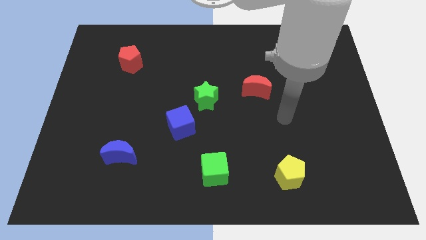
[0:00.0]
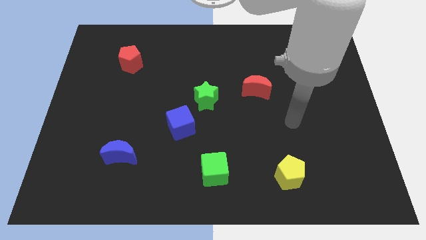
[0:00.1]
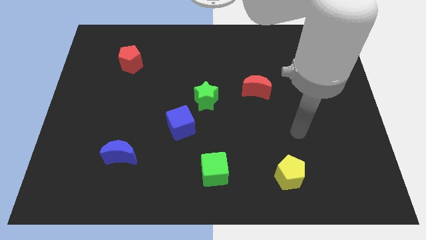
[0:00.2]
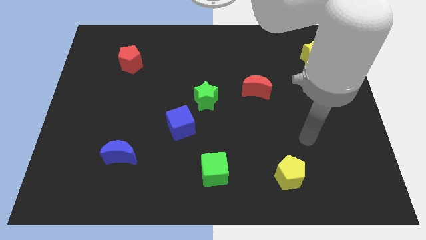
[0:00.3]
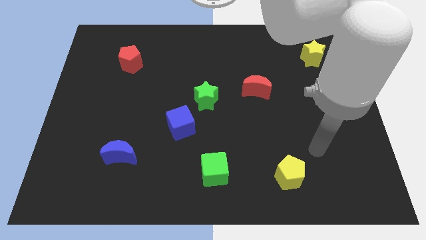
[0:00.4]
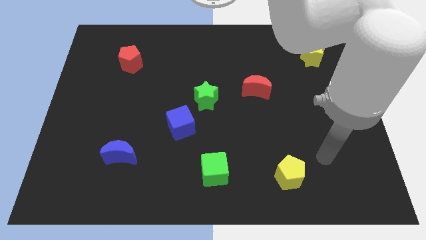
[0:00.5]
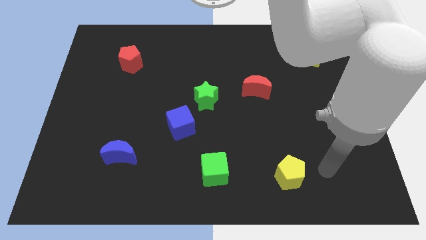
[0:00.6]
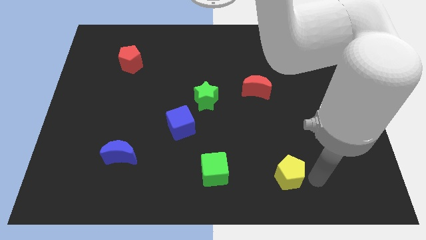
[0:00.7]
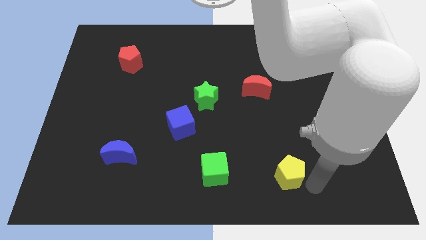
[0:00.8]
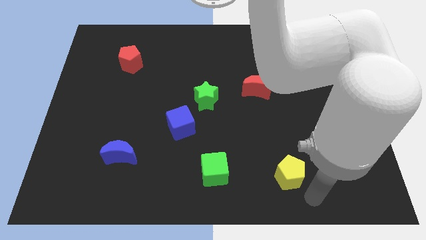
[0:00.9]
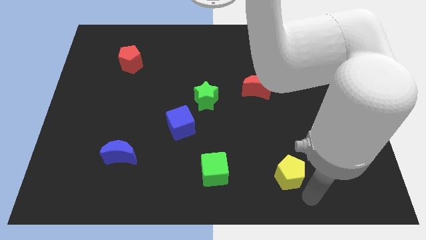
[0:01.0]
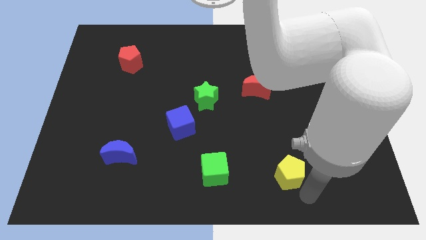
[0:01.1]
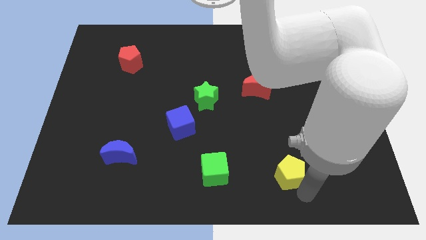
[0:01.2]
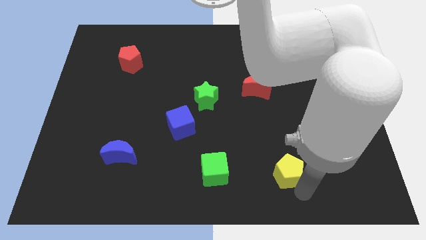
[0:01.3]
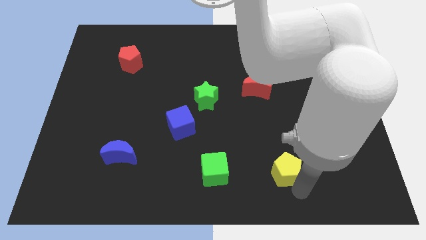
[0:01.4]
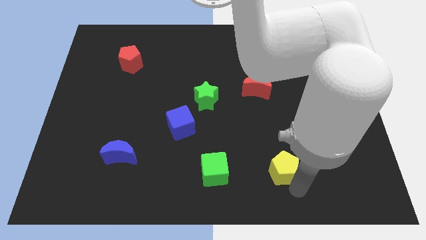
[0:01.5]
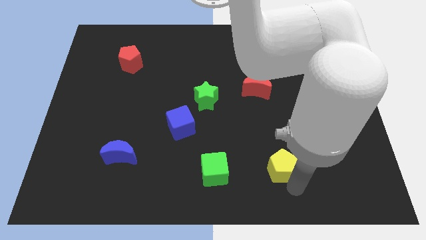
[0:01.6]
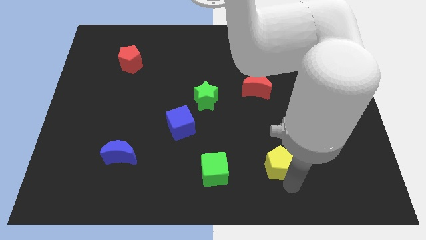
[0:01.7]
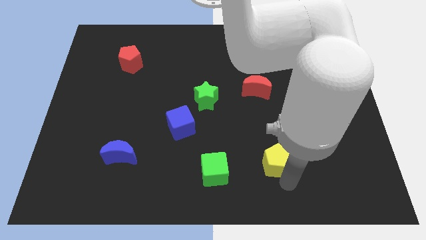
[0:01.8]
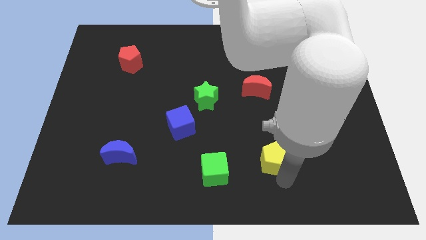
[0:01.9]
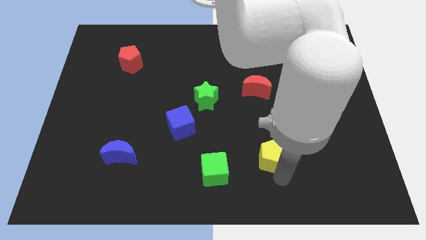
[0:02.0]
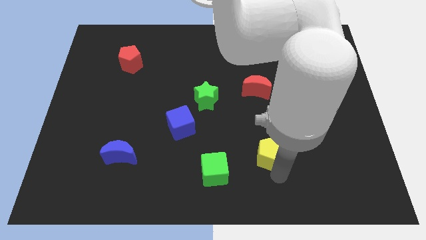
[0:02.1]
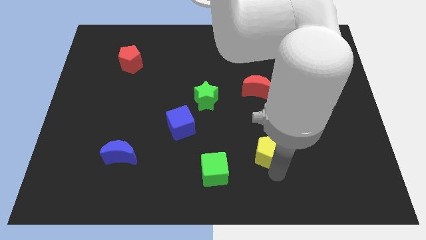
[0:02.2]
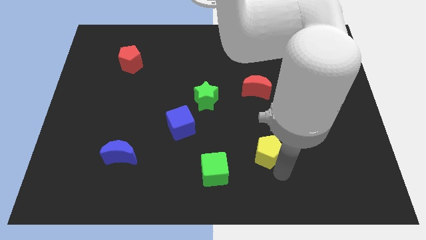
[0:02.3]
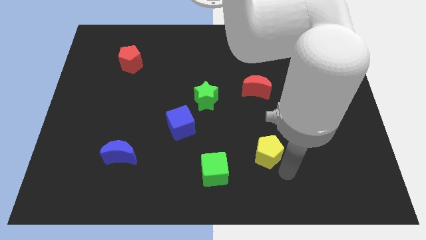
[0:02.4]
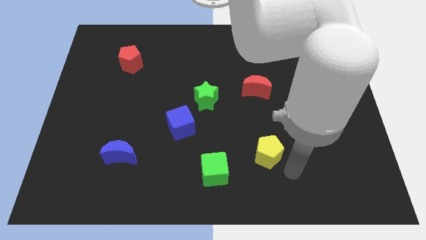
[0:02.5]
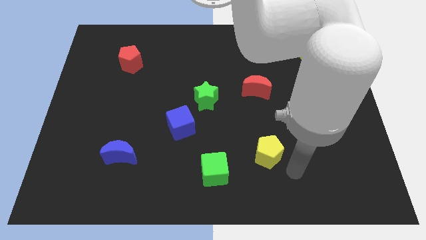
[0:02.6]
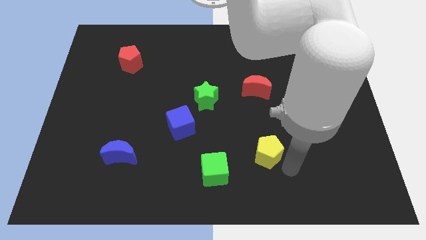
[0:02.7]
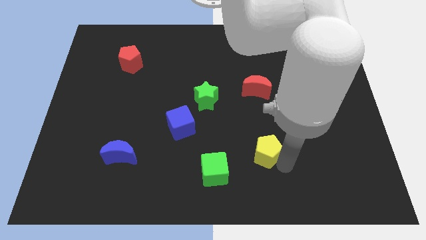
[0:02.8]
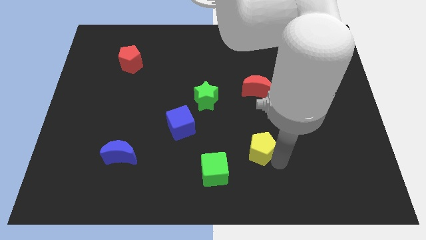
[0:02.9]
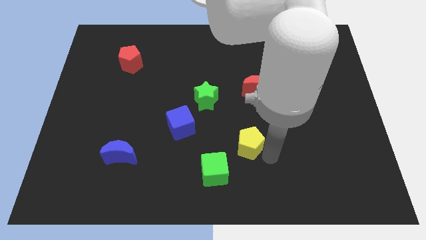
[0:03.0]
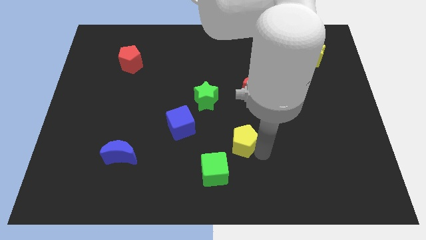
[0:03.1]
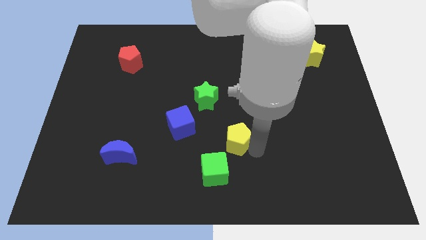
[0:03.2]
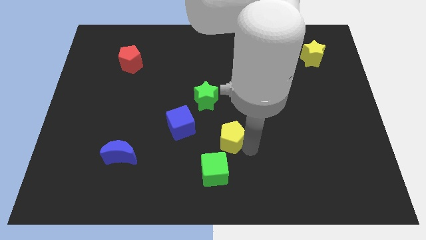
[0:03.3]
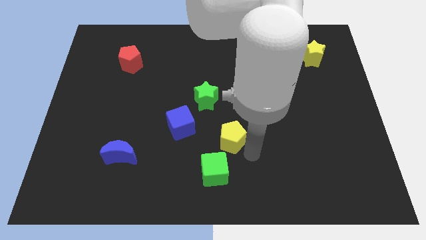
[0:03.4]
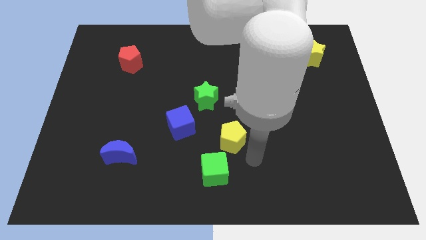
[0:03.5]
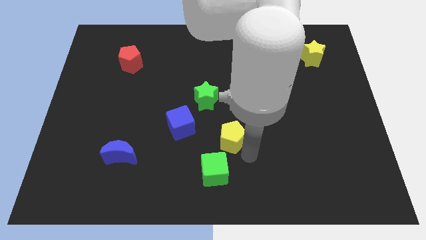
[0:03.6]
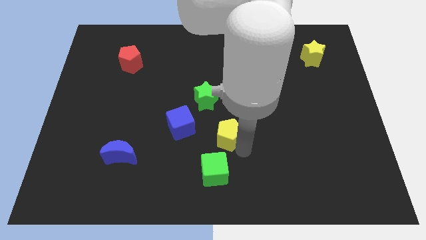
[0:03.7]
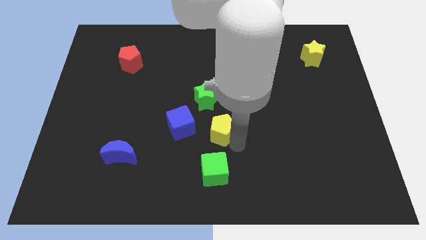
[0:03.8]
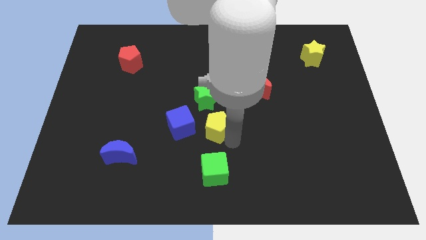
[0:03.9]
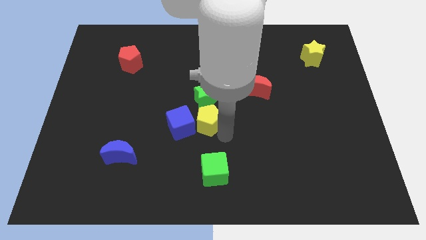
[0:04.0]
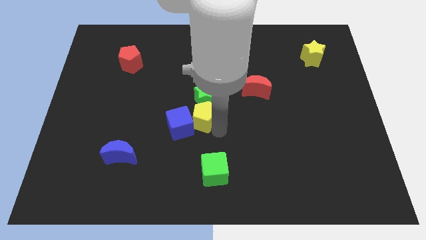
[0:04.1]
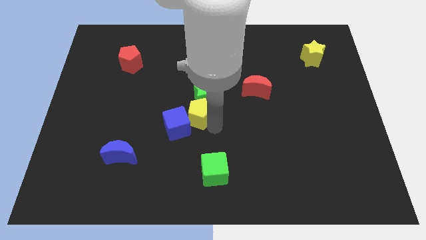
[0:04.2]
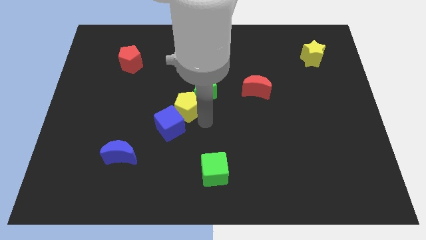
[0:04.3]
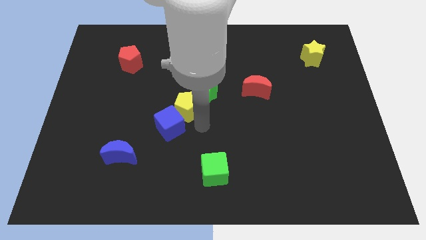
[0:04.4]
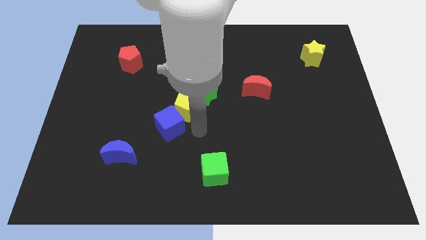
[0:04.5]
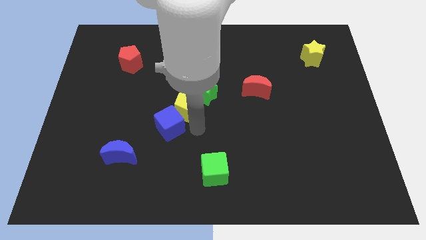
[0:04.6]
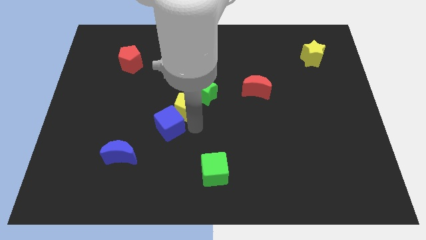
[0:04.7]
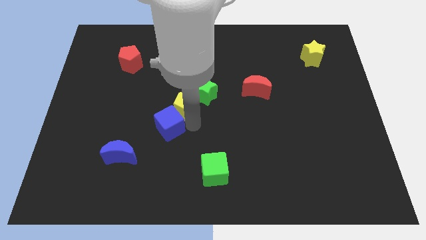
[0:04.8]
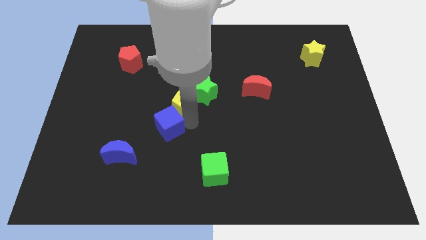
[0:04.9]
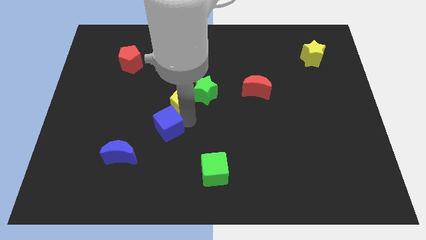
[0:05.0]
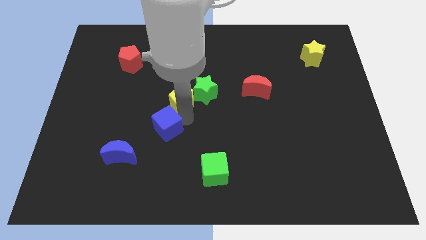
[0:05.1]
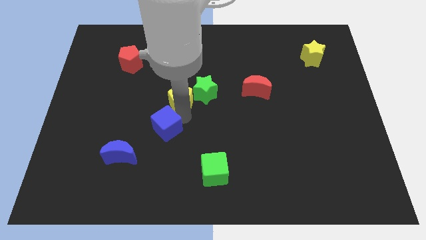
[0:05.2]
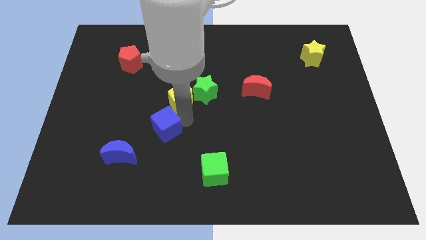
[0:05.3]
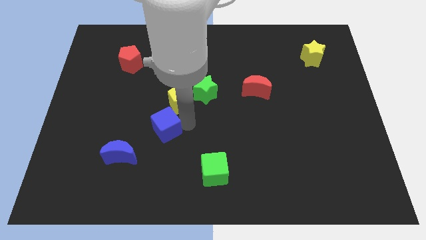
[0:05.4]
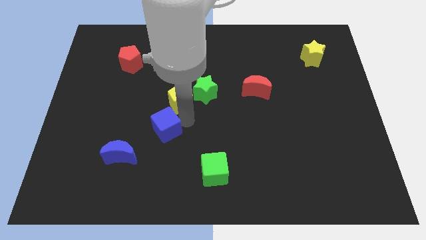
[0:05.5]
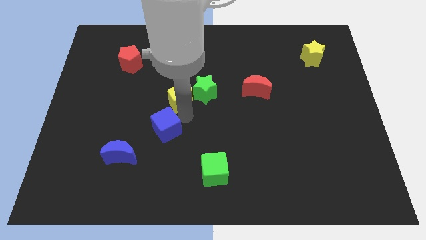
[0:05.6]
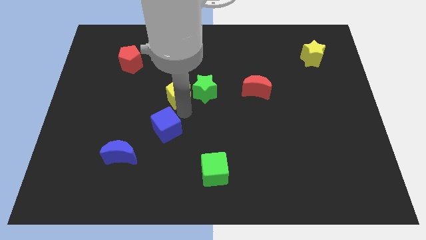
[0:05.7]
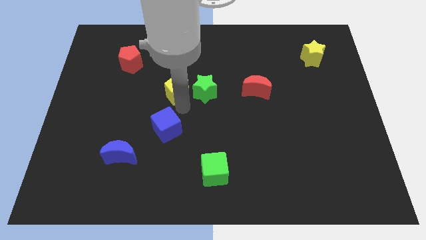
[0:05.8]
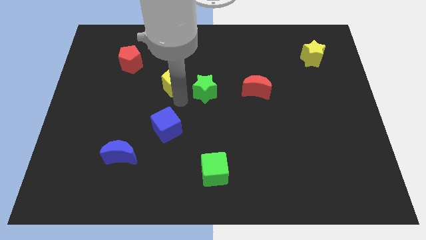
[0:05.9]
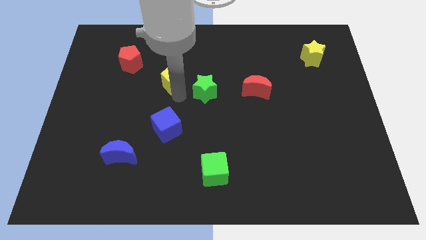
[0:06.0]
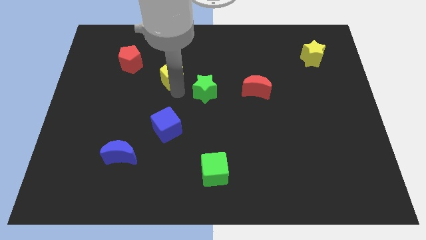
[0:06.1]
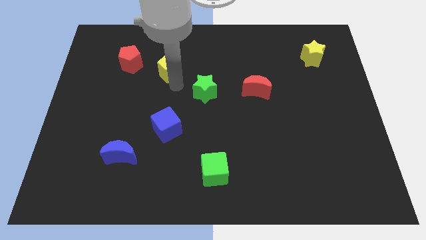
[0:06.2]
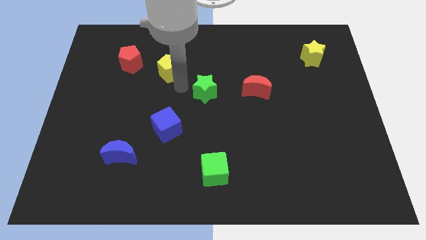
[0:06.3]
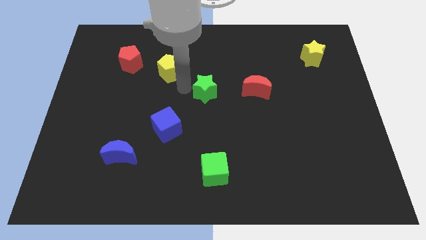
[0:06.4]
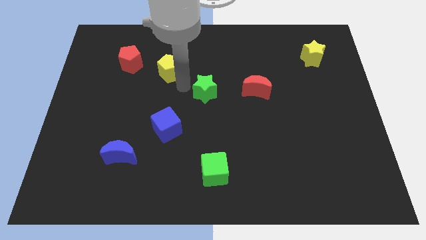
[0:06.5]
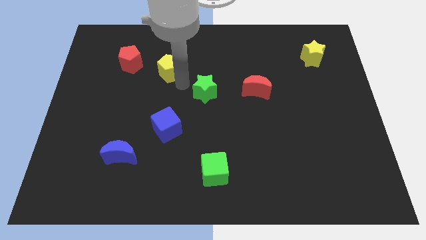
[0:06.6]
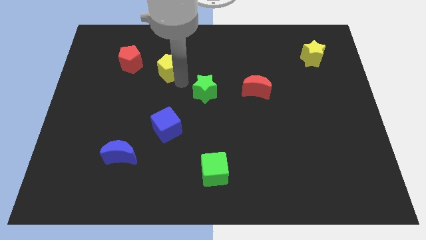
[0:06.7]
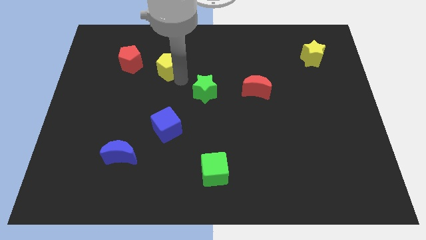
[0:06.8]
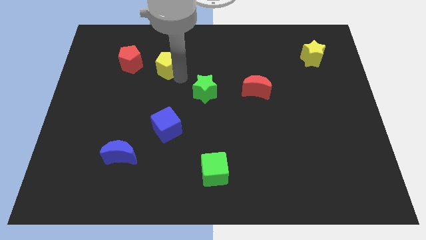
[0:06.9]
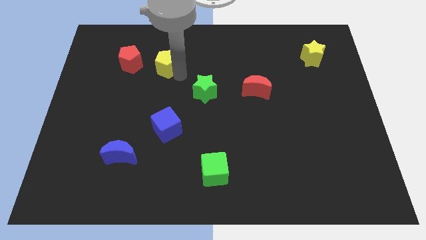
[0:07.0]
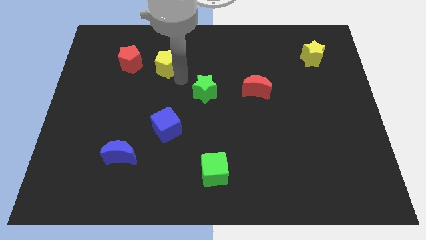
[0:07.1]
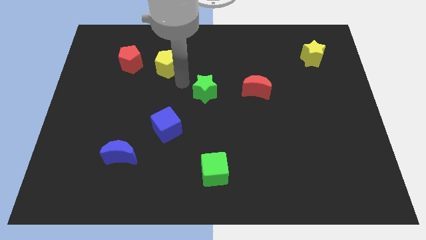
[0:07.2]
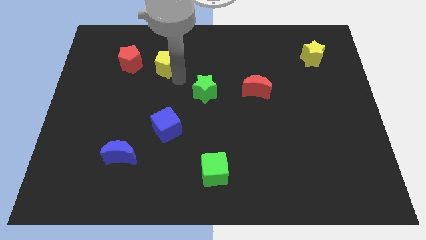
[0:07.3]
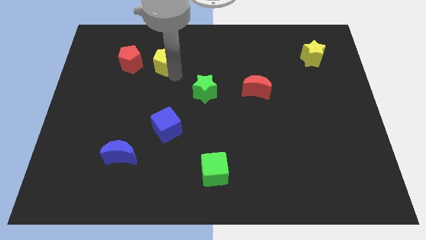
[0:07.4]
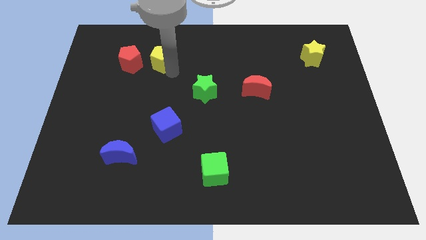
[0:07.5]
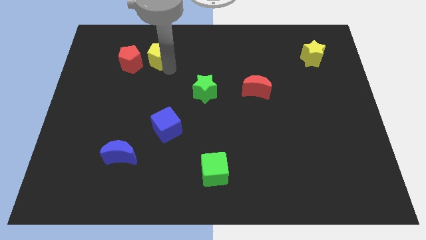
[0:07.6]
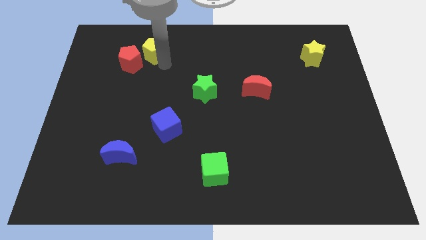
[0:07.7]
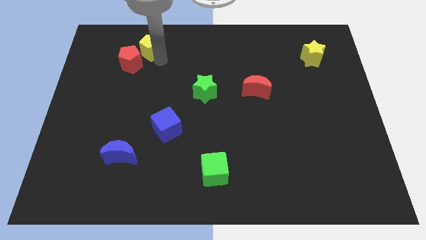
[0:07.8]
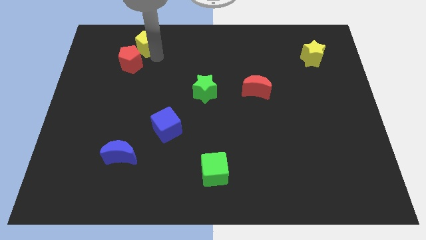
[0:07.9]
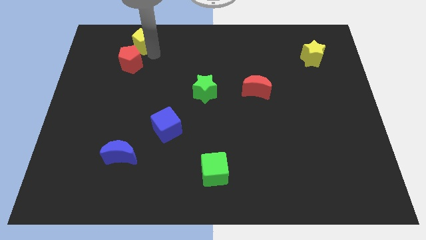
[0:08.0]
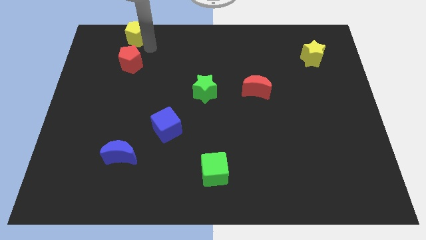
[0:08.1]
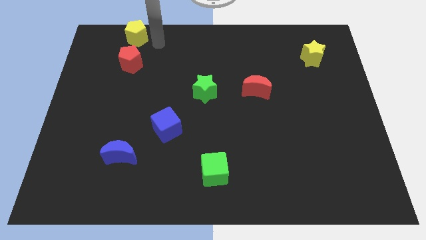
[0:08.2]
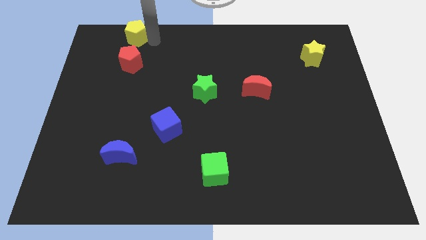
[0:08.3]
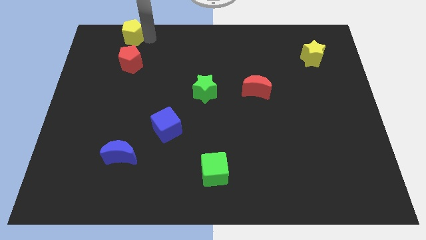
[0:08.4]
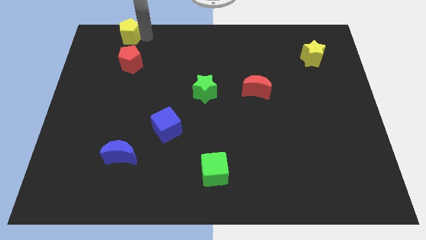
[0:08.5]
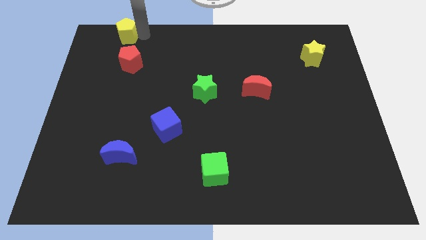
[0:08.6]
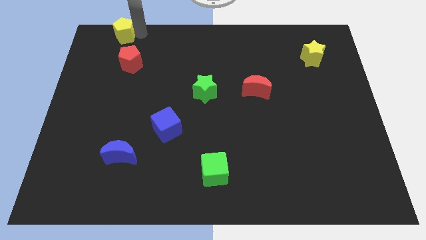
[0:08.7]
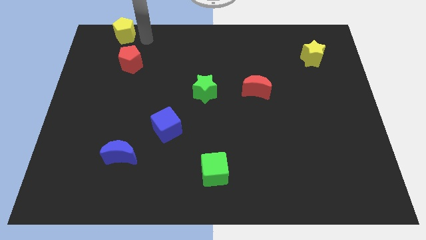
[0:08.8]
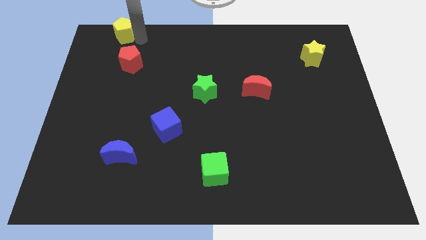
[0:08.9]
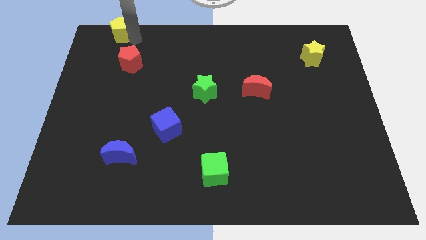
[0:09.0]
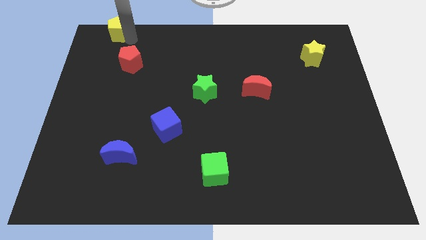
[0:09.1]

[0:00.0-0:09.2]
push the yellow pentagon to the upper left corner
